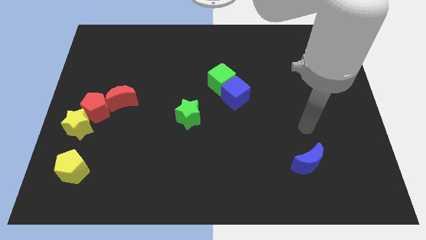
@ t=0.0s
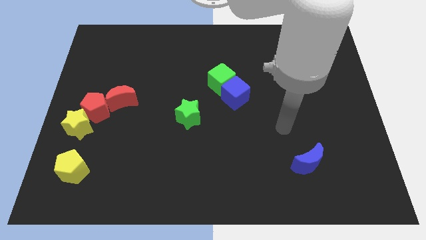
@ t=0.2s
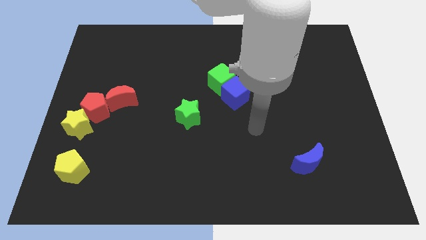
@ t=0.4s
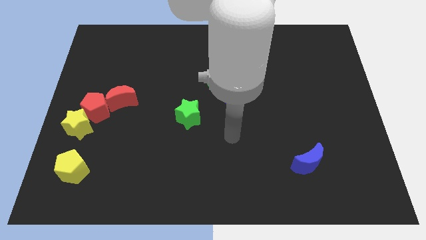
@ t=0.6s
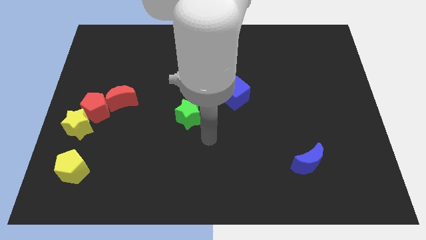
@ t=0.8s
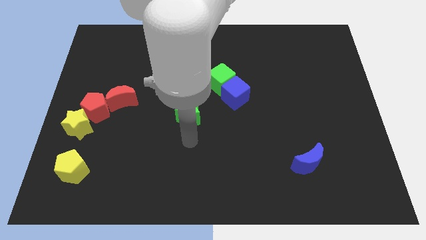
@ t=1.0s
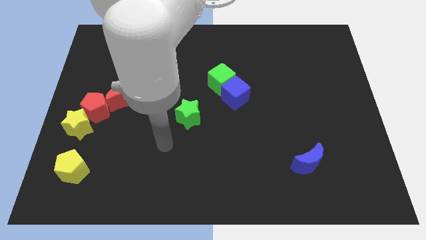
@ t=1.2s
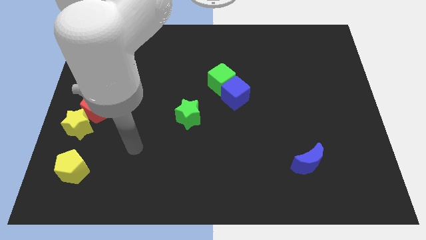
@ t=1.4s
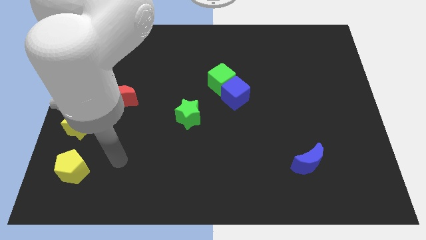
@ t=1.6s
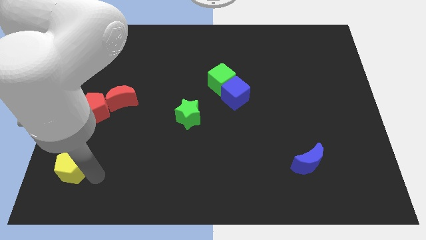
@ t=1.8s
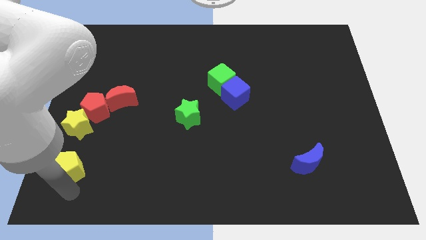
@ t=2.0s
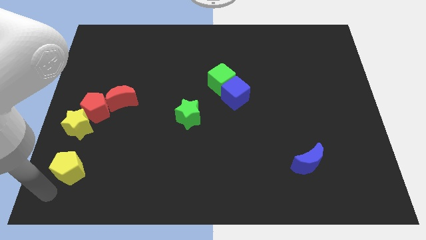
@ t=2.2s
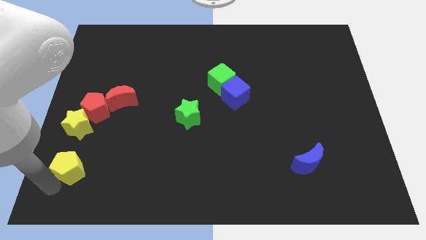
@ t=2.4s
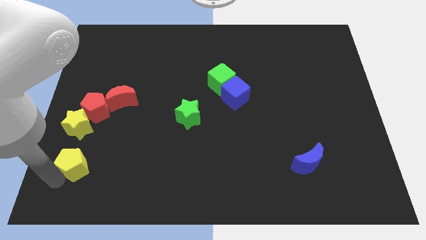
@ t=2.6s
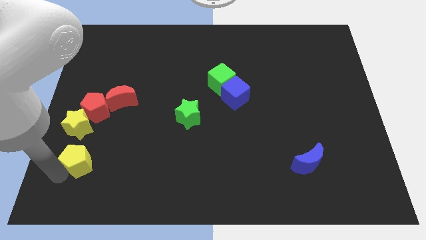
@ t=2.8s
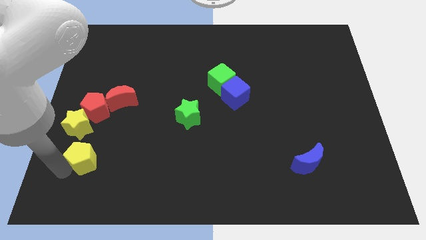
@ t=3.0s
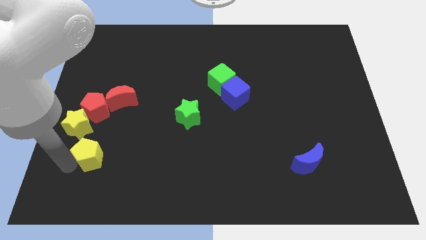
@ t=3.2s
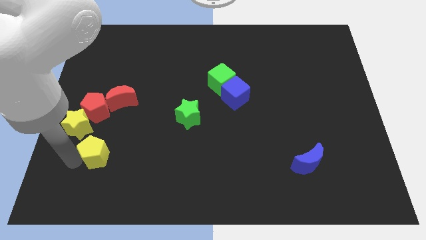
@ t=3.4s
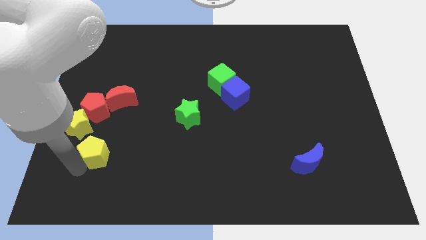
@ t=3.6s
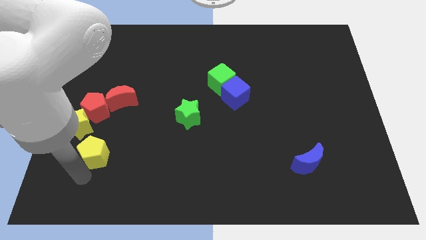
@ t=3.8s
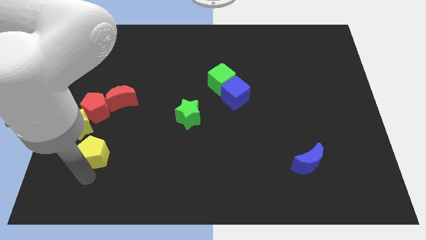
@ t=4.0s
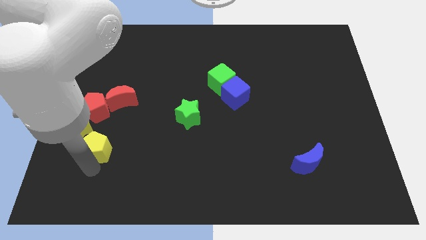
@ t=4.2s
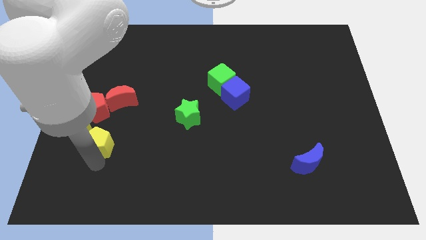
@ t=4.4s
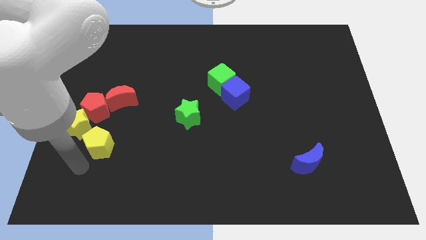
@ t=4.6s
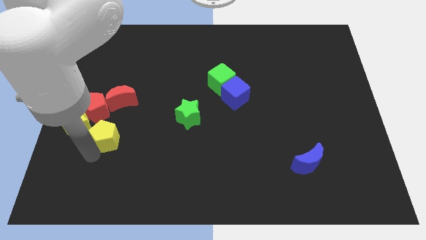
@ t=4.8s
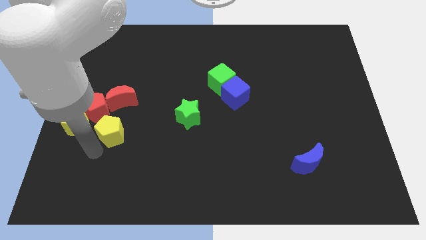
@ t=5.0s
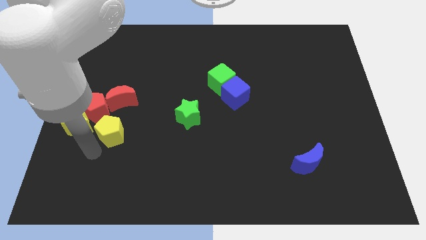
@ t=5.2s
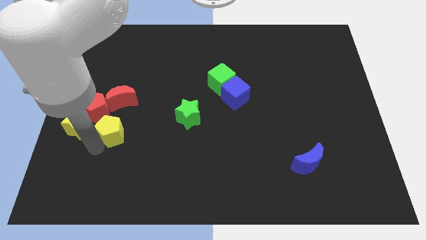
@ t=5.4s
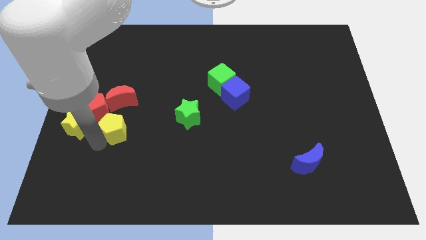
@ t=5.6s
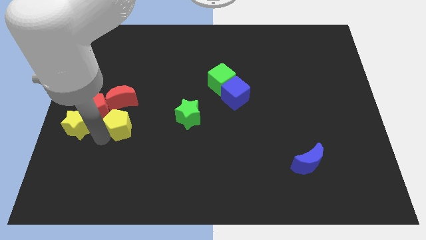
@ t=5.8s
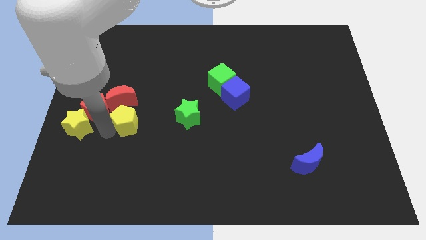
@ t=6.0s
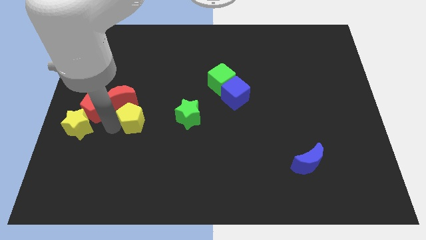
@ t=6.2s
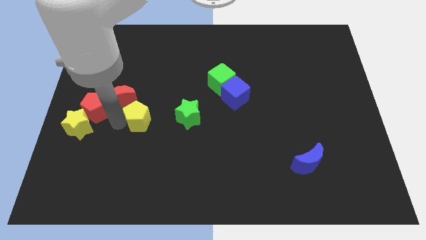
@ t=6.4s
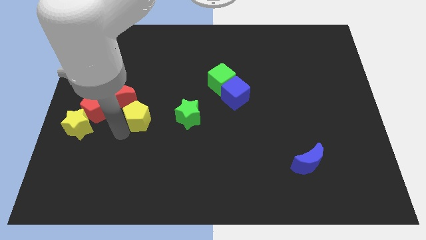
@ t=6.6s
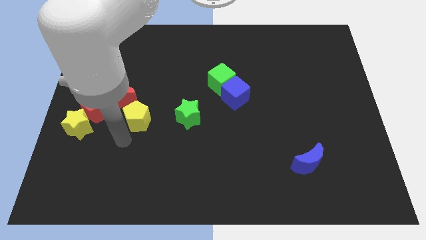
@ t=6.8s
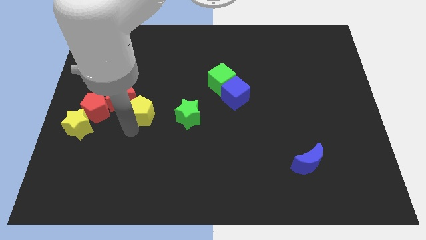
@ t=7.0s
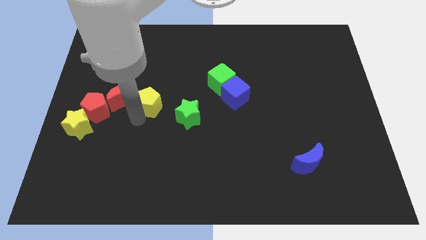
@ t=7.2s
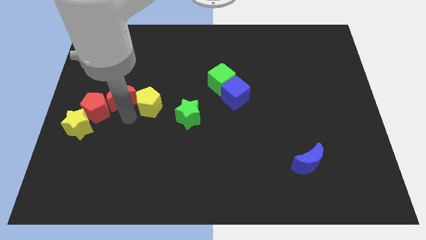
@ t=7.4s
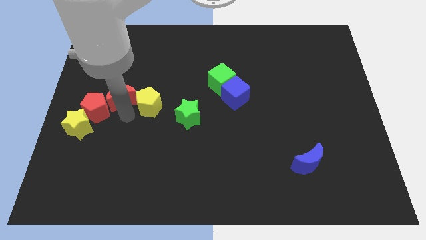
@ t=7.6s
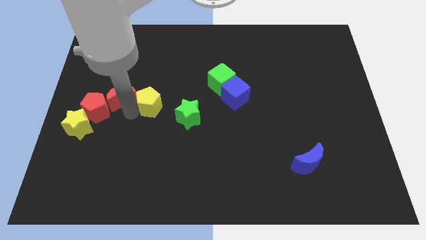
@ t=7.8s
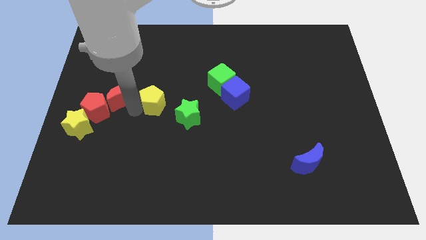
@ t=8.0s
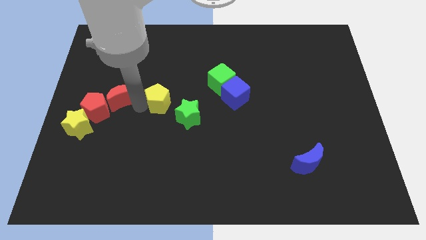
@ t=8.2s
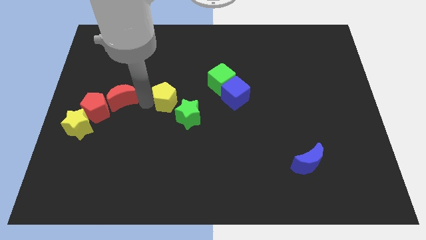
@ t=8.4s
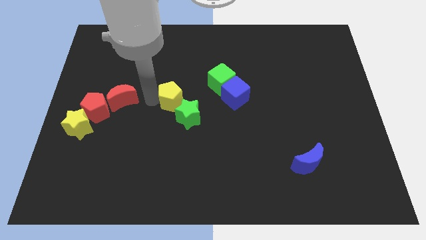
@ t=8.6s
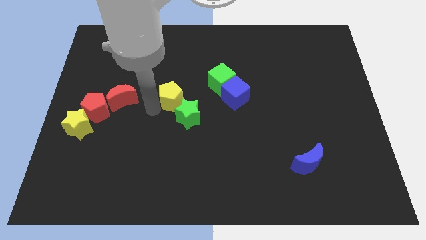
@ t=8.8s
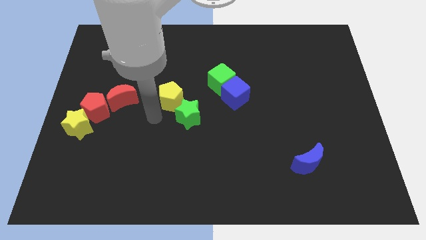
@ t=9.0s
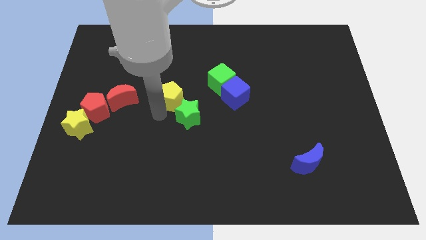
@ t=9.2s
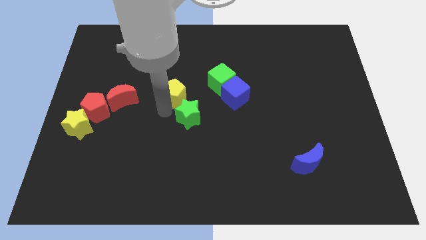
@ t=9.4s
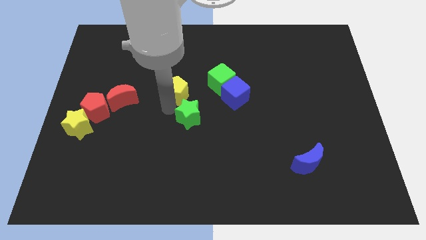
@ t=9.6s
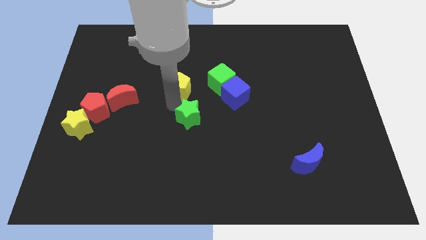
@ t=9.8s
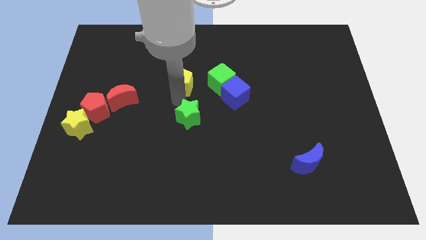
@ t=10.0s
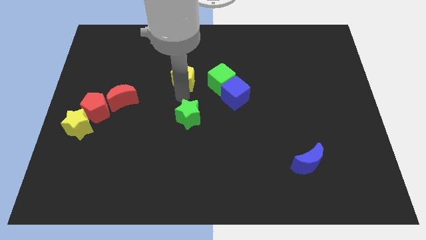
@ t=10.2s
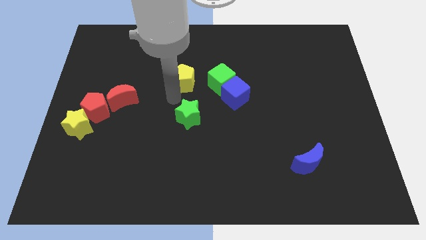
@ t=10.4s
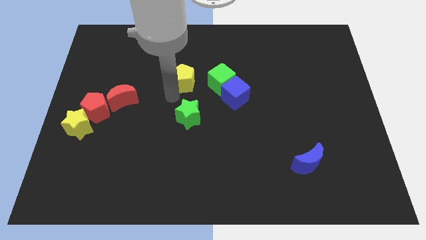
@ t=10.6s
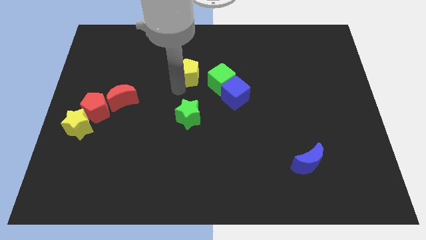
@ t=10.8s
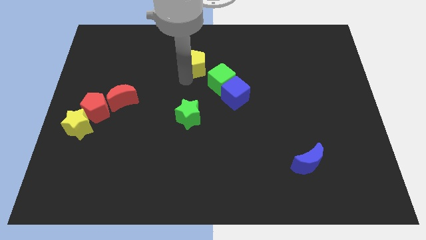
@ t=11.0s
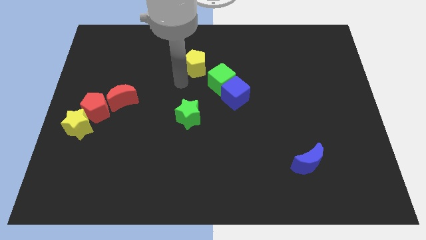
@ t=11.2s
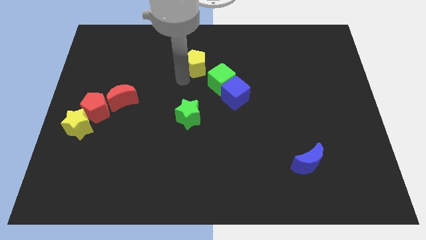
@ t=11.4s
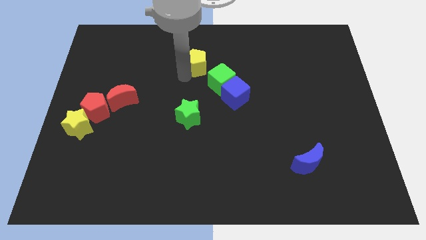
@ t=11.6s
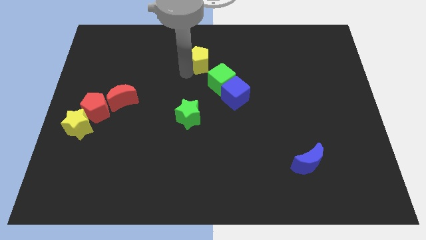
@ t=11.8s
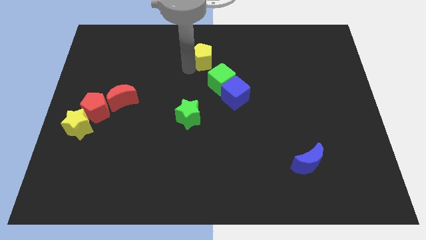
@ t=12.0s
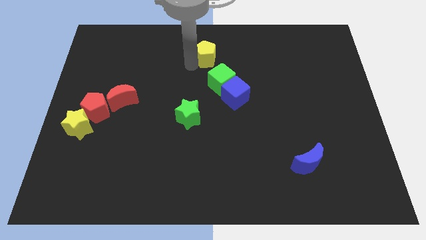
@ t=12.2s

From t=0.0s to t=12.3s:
move the yellow pentagon to the towards your base
